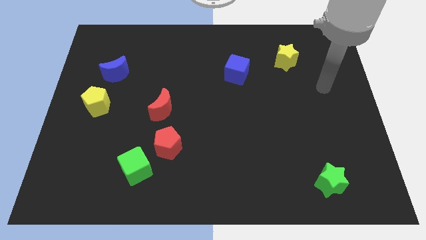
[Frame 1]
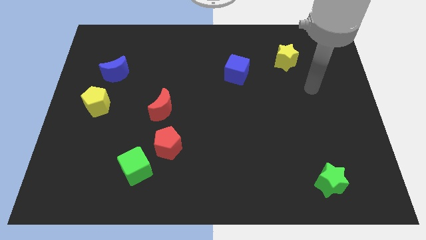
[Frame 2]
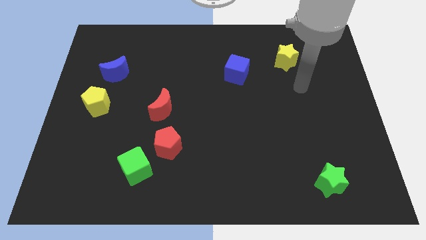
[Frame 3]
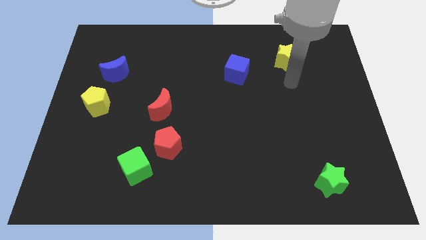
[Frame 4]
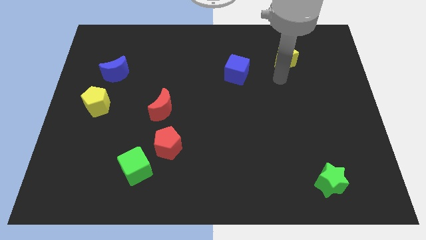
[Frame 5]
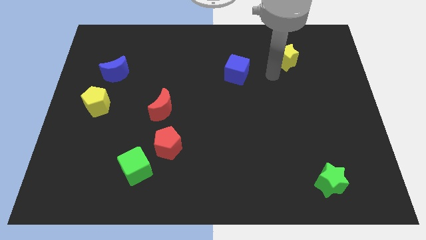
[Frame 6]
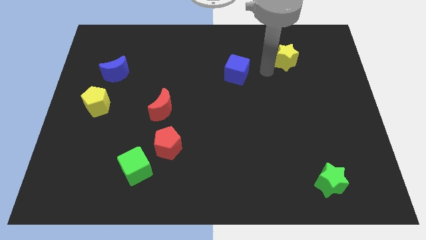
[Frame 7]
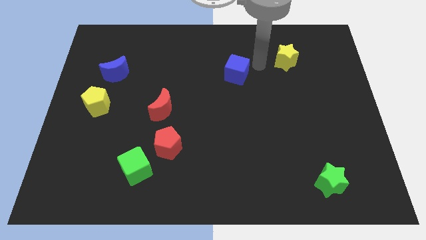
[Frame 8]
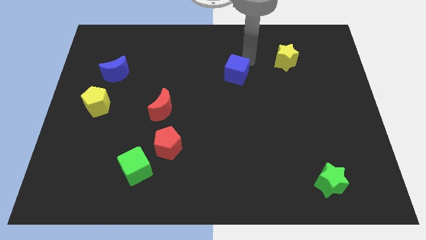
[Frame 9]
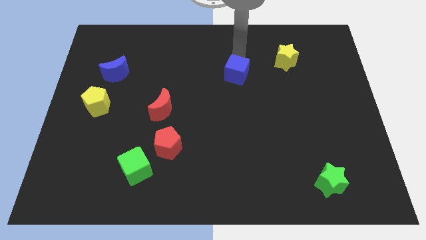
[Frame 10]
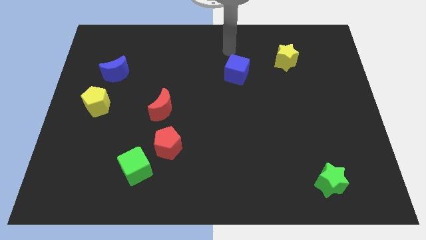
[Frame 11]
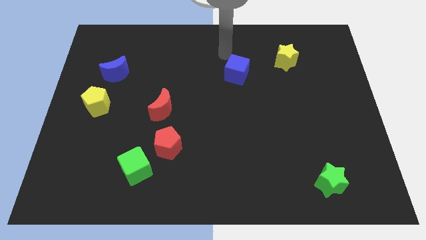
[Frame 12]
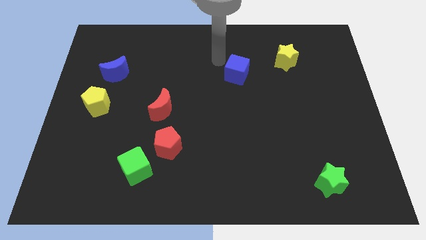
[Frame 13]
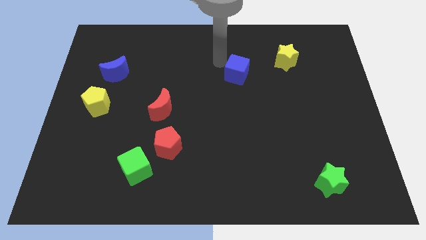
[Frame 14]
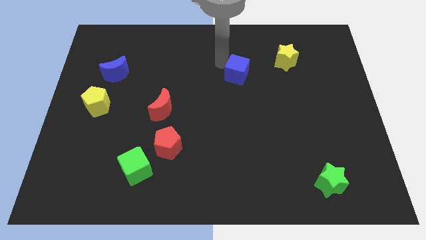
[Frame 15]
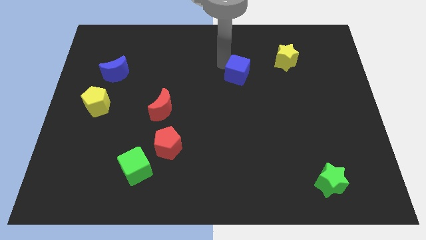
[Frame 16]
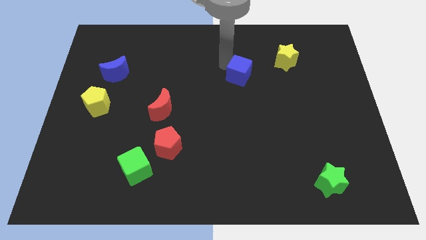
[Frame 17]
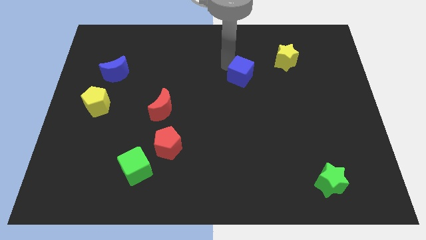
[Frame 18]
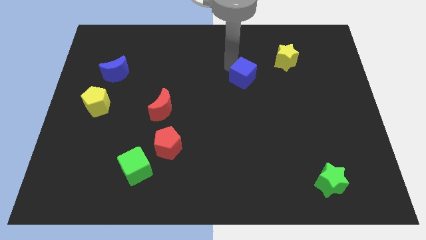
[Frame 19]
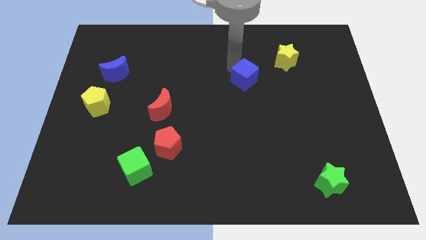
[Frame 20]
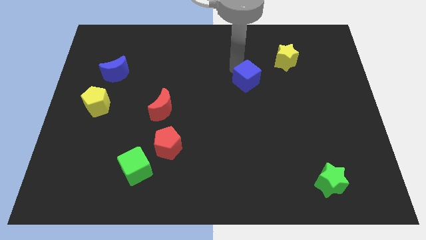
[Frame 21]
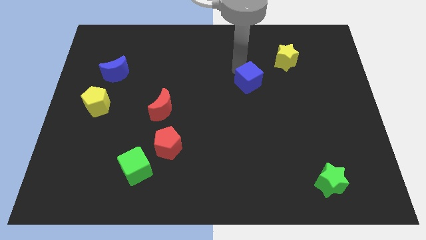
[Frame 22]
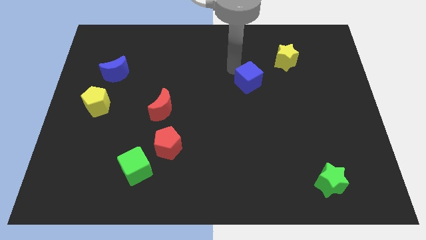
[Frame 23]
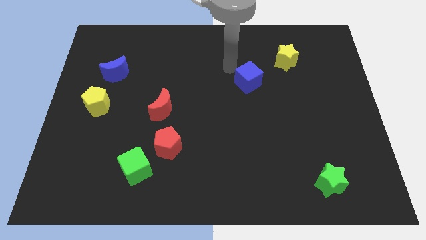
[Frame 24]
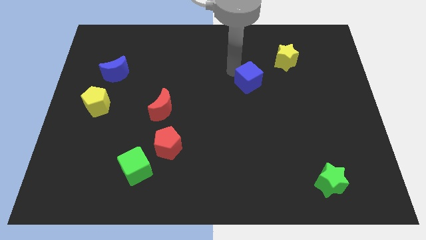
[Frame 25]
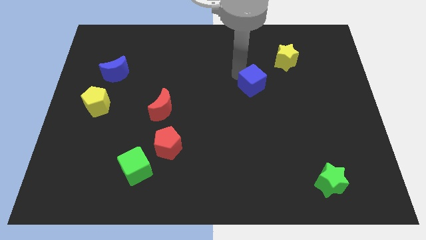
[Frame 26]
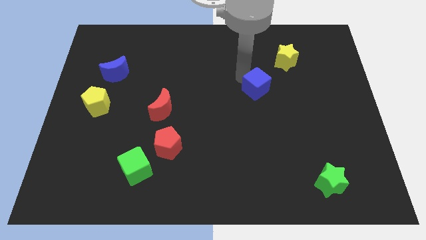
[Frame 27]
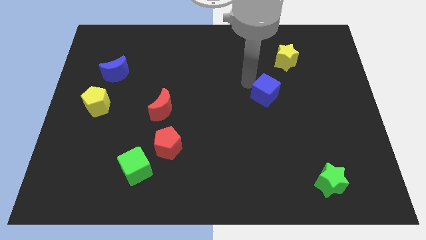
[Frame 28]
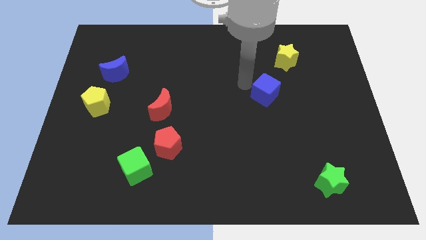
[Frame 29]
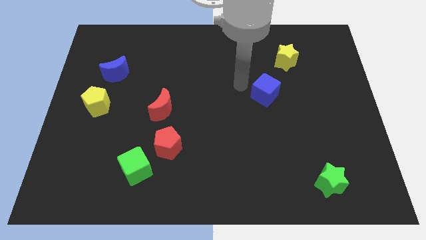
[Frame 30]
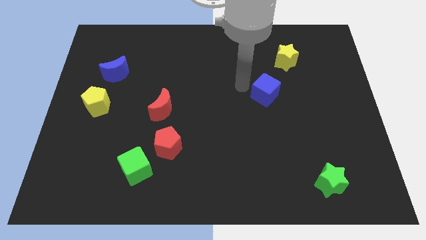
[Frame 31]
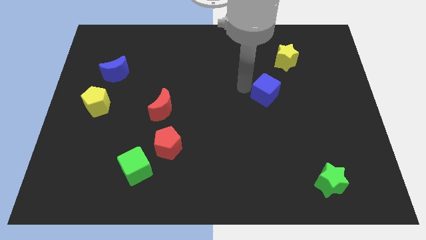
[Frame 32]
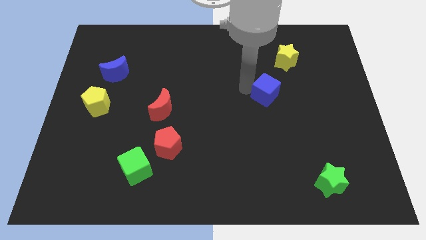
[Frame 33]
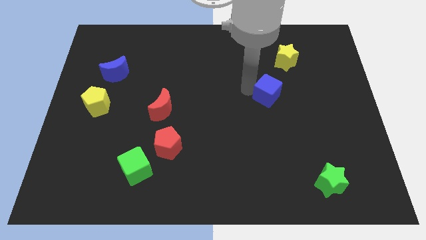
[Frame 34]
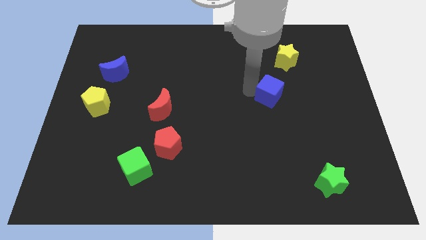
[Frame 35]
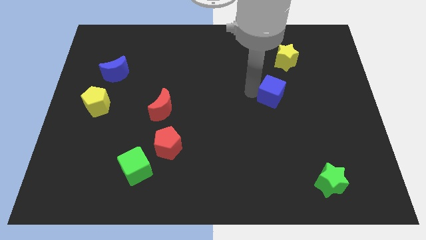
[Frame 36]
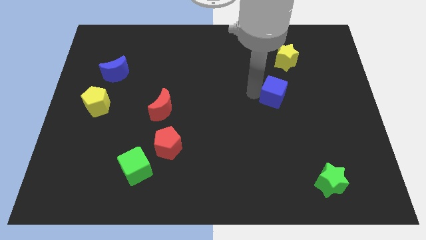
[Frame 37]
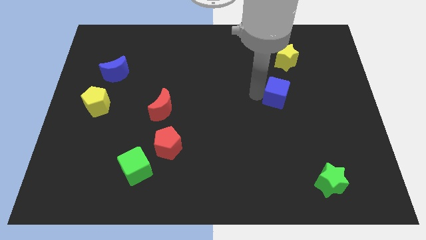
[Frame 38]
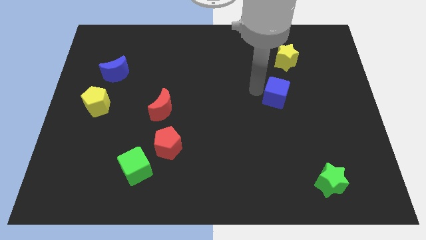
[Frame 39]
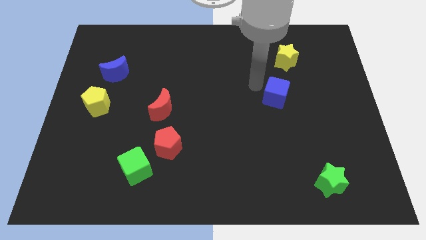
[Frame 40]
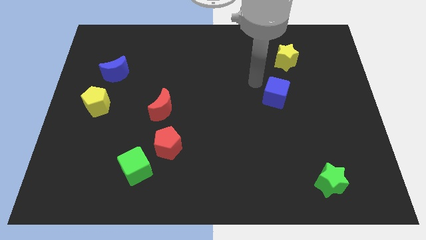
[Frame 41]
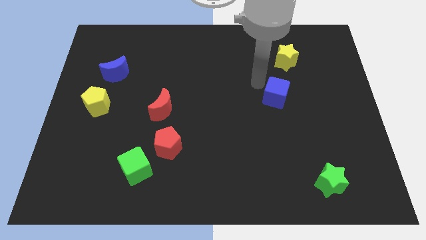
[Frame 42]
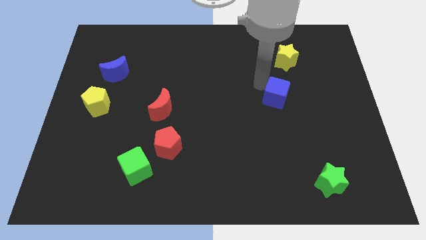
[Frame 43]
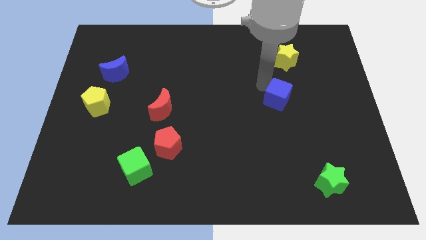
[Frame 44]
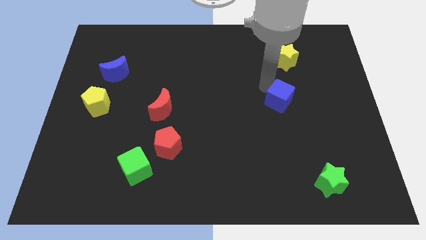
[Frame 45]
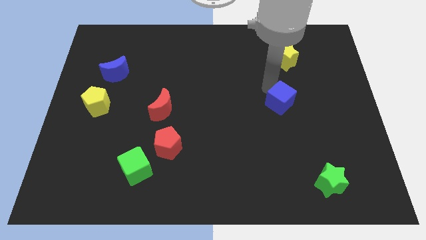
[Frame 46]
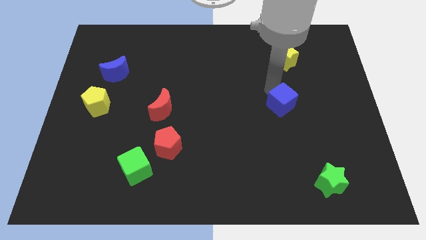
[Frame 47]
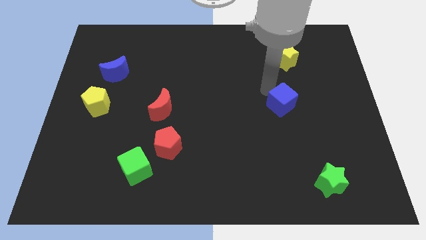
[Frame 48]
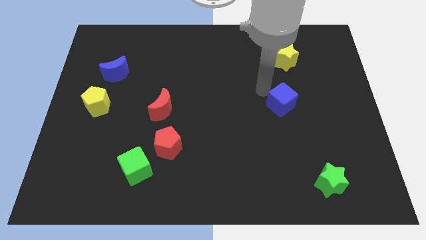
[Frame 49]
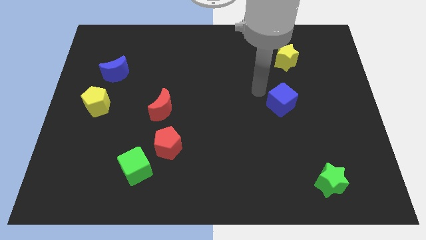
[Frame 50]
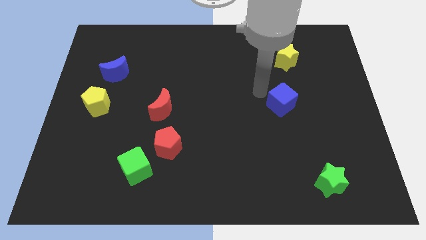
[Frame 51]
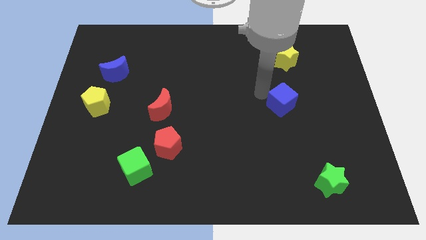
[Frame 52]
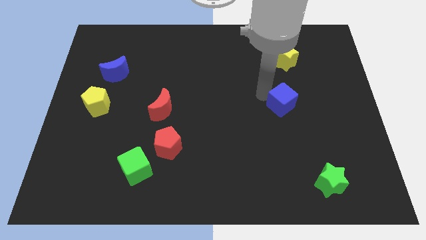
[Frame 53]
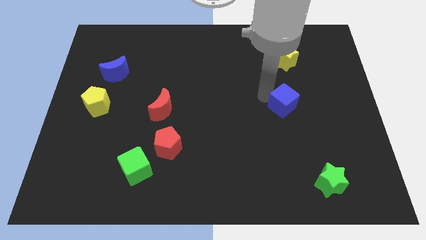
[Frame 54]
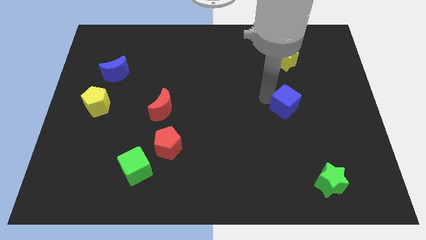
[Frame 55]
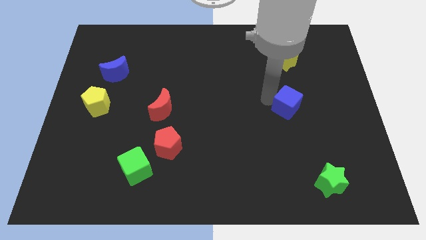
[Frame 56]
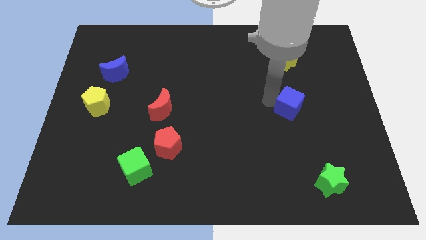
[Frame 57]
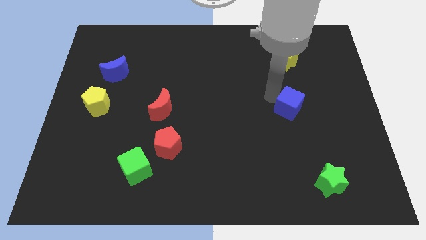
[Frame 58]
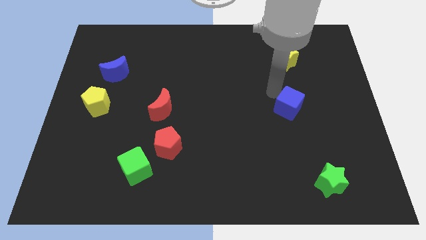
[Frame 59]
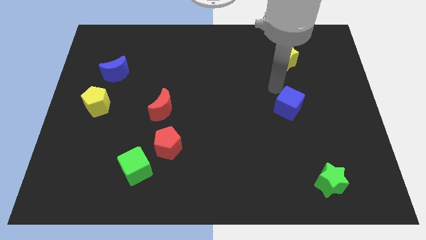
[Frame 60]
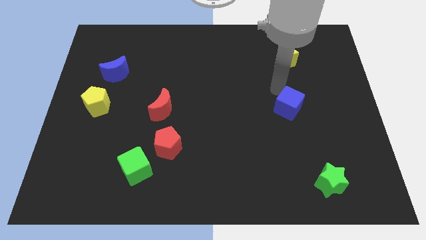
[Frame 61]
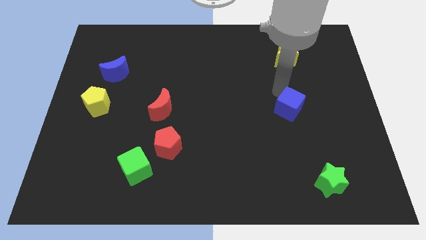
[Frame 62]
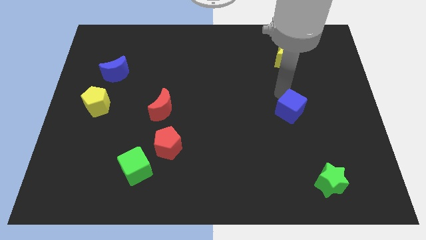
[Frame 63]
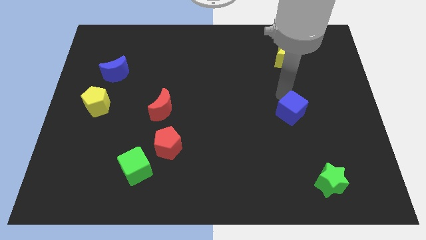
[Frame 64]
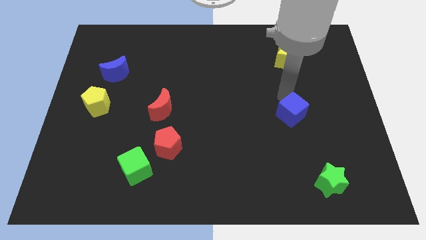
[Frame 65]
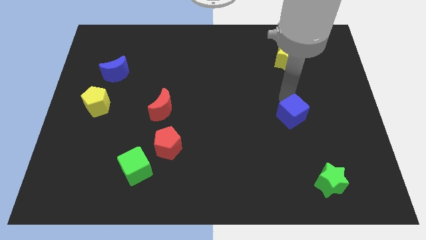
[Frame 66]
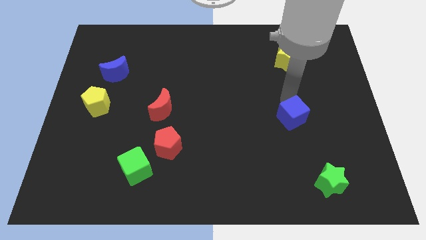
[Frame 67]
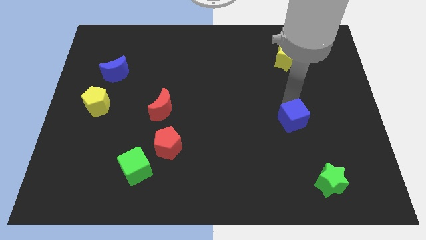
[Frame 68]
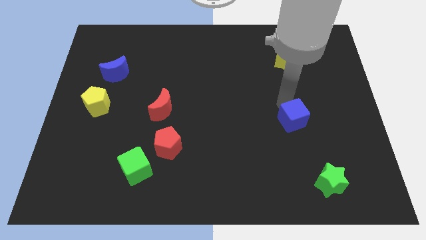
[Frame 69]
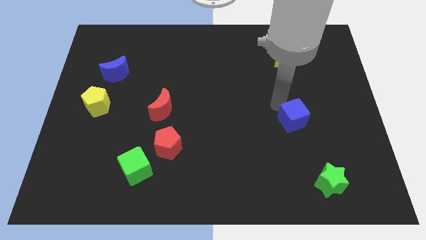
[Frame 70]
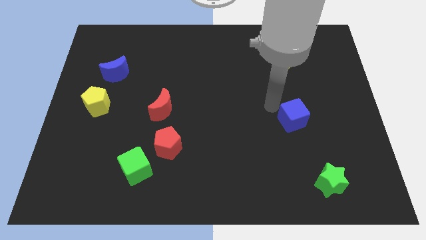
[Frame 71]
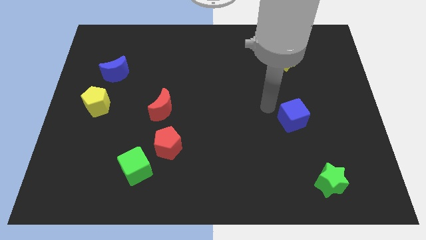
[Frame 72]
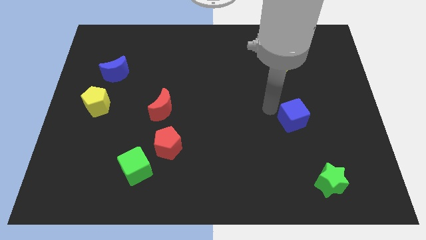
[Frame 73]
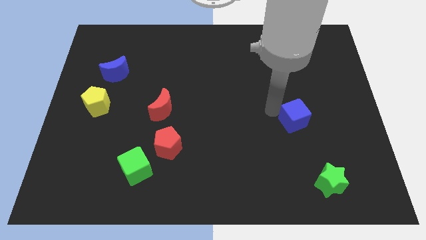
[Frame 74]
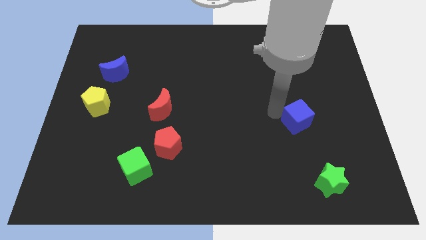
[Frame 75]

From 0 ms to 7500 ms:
slide the blue cube downwards and then to the right

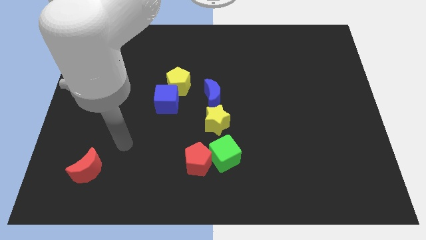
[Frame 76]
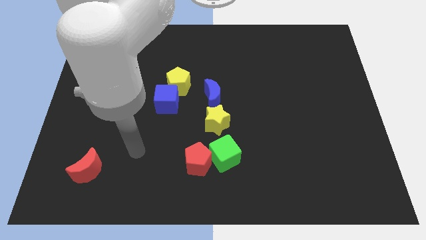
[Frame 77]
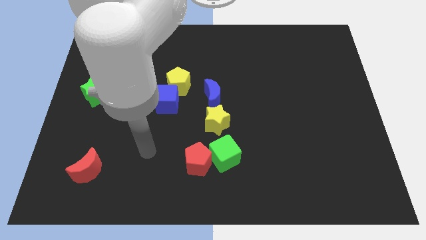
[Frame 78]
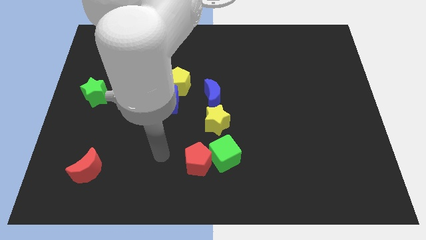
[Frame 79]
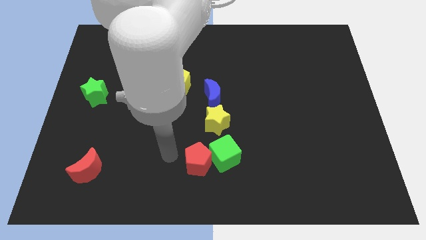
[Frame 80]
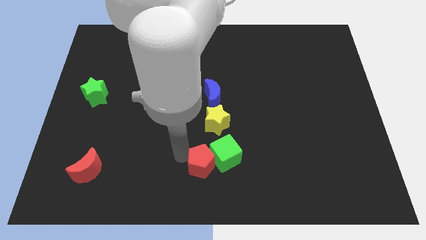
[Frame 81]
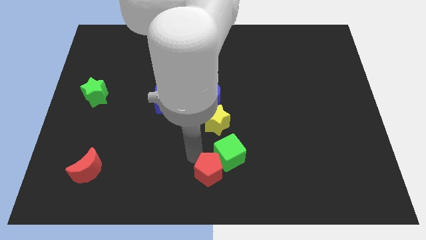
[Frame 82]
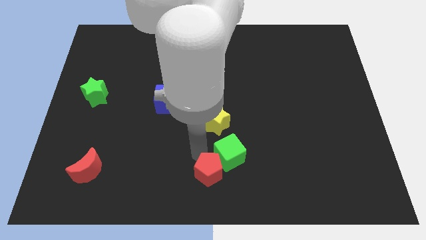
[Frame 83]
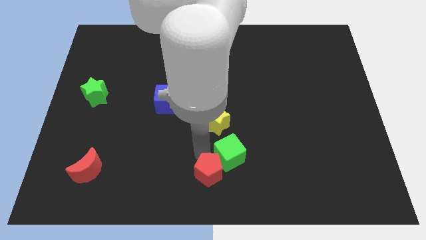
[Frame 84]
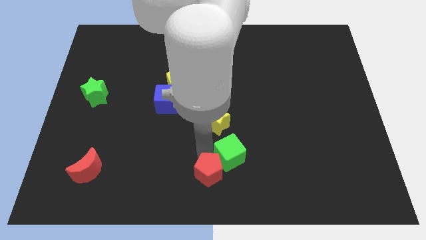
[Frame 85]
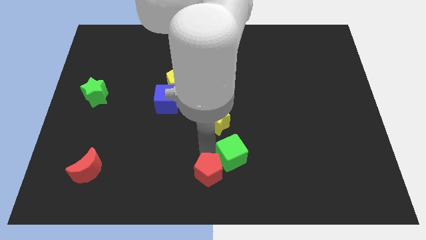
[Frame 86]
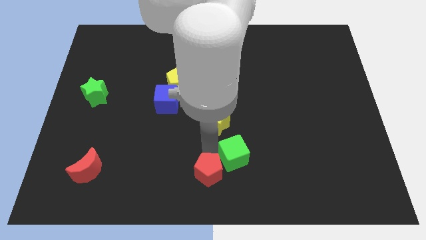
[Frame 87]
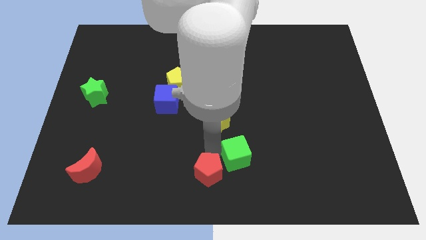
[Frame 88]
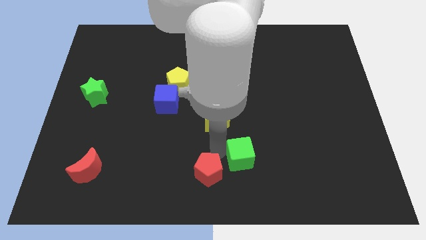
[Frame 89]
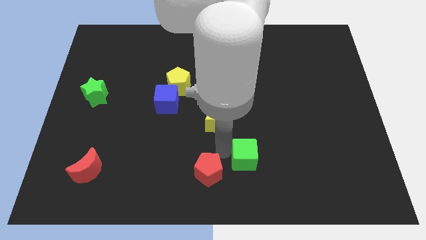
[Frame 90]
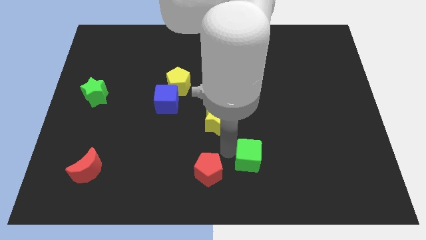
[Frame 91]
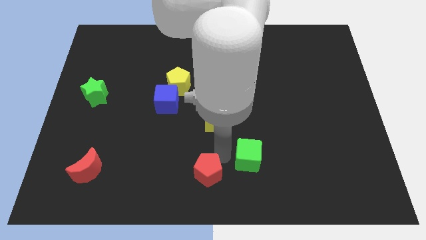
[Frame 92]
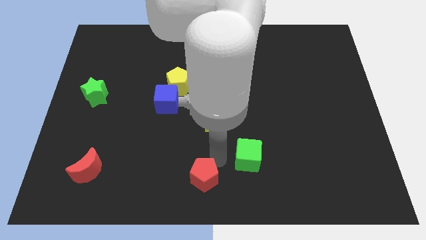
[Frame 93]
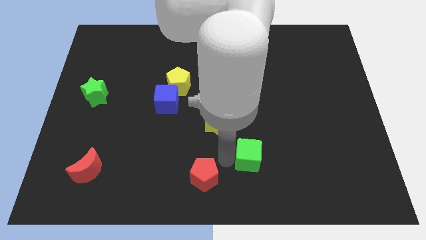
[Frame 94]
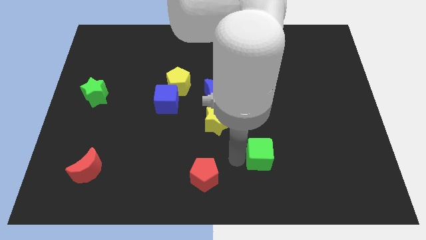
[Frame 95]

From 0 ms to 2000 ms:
push the green cube a little bit to the right
